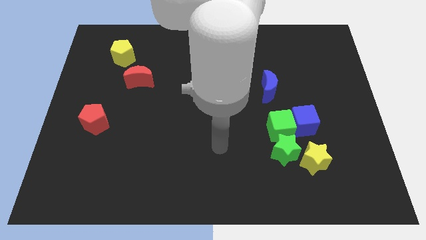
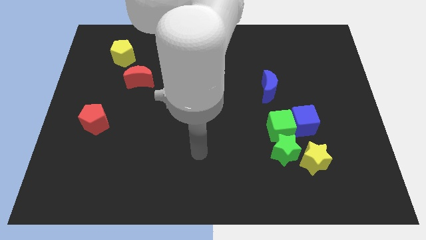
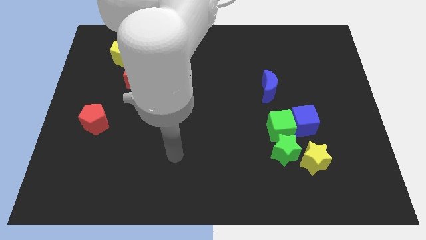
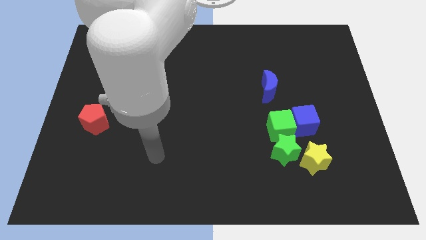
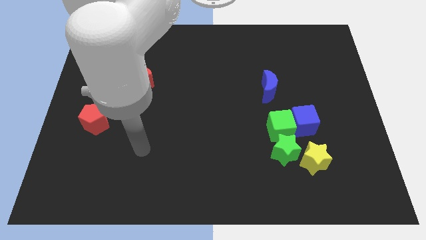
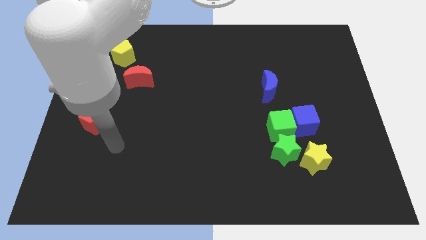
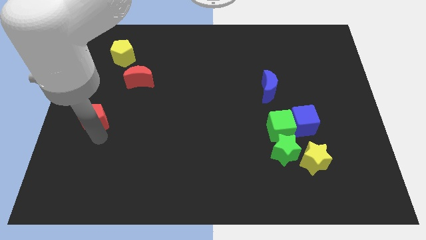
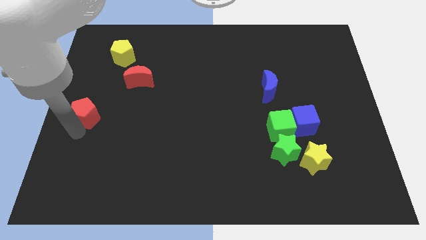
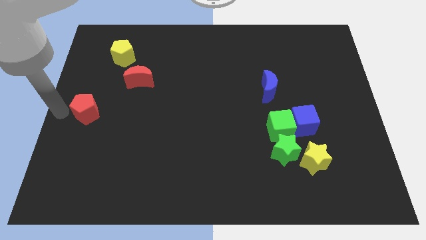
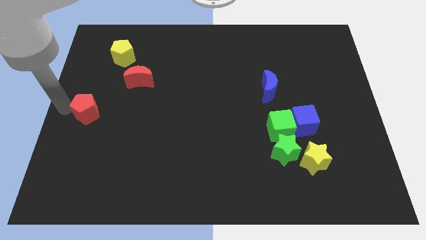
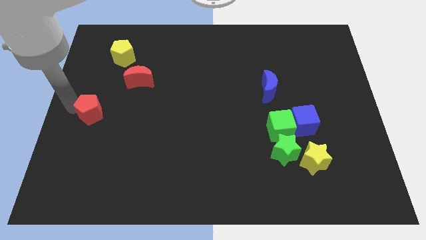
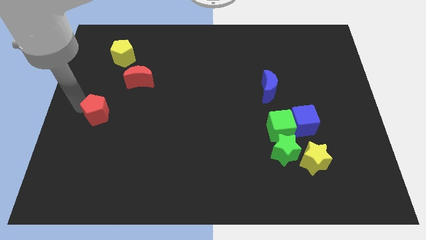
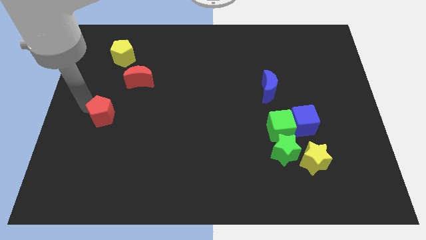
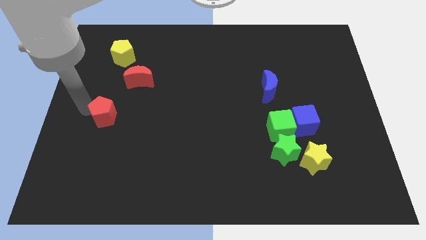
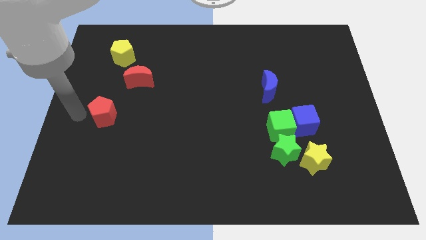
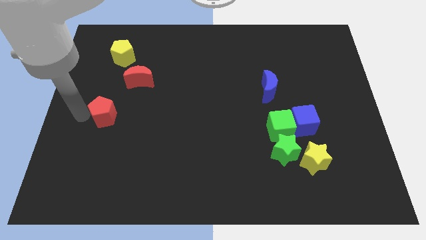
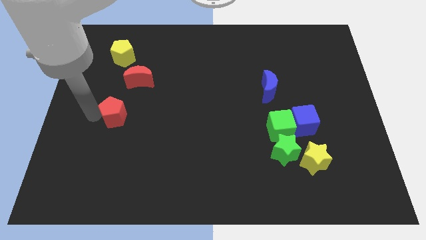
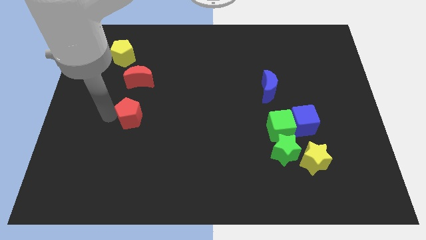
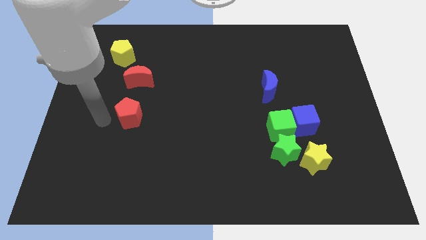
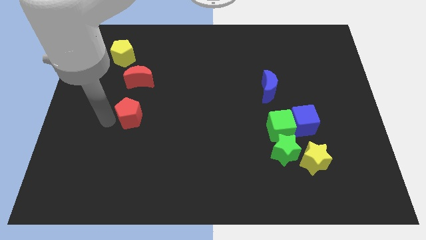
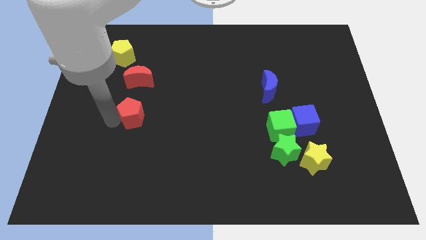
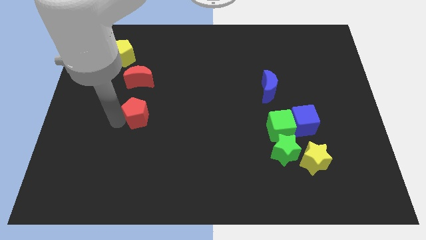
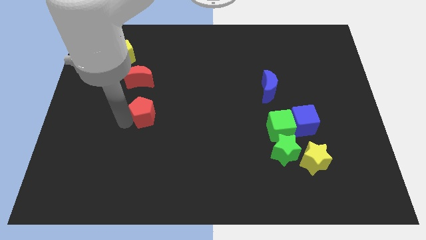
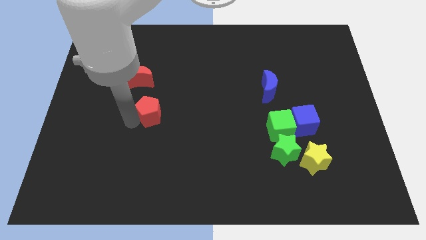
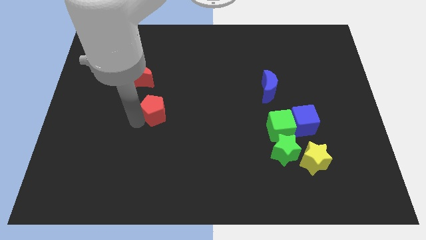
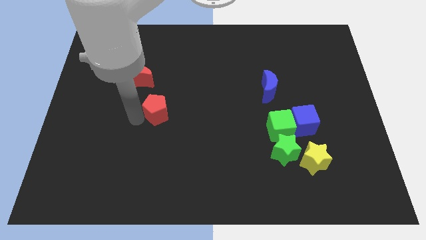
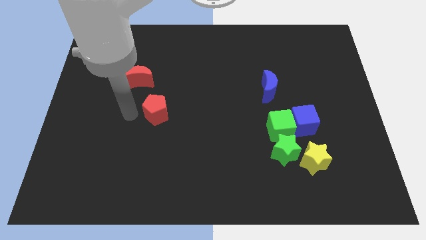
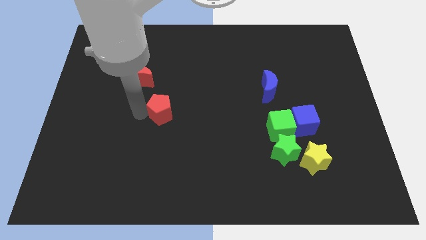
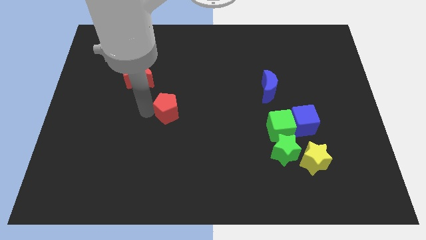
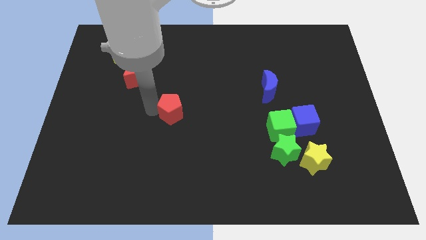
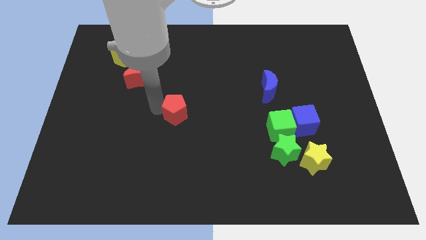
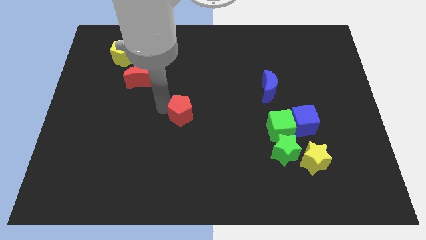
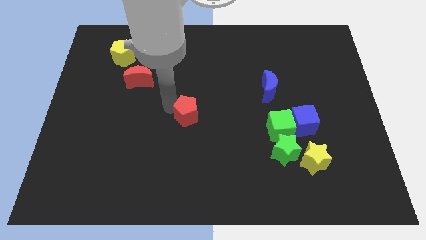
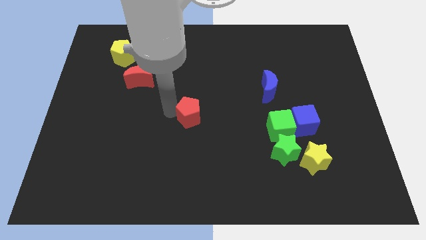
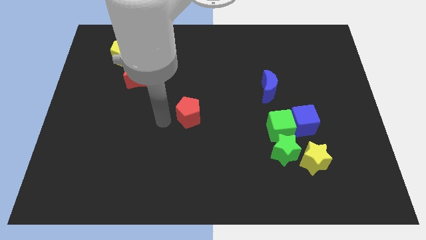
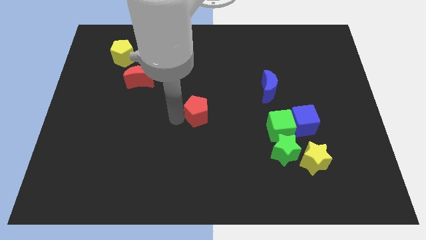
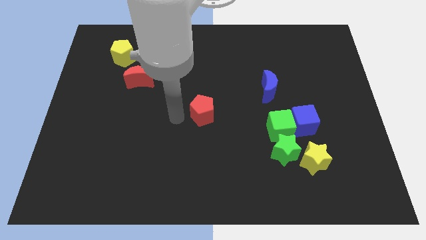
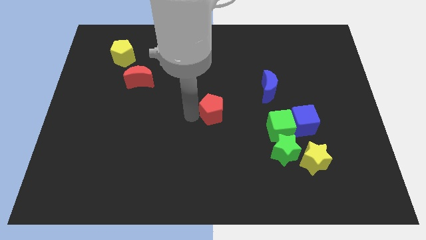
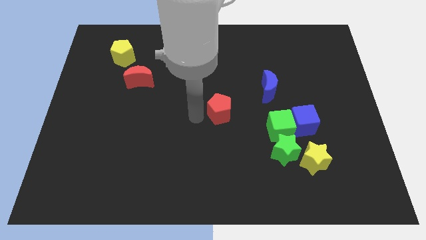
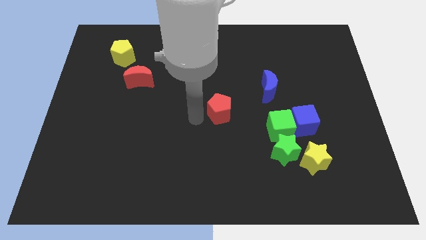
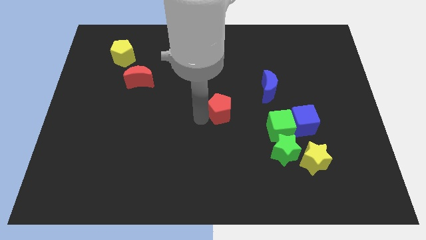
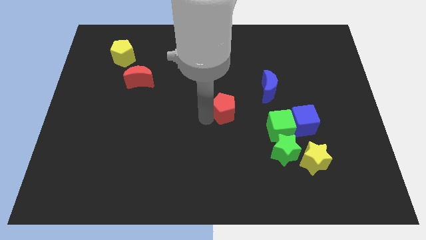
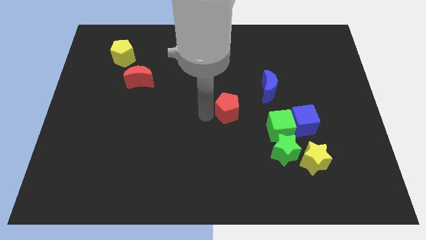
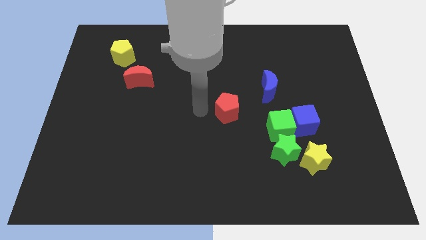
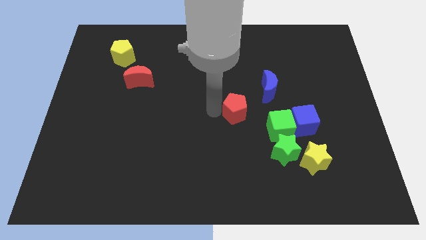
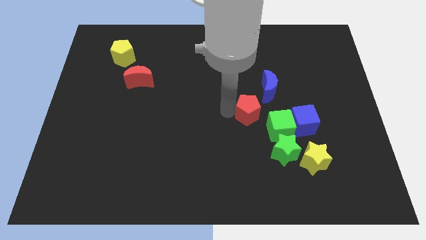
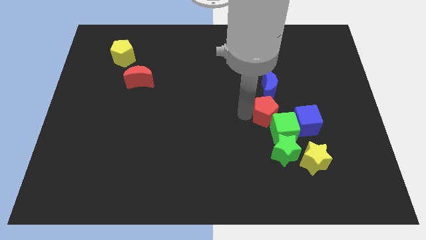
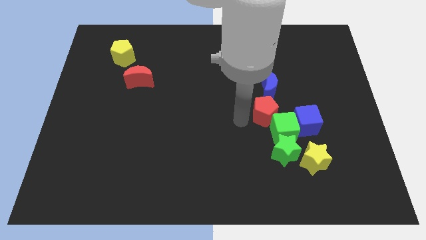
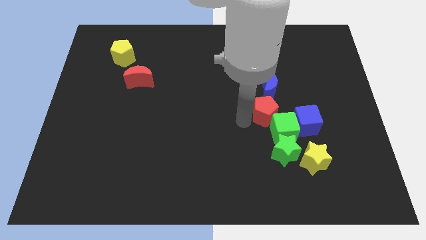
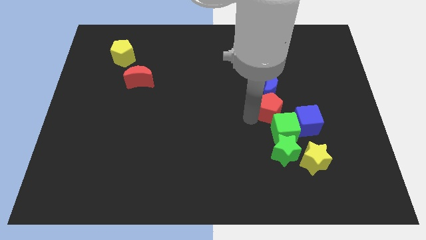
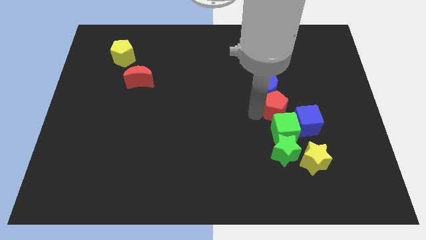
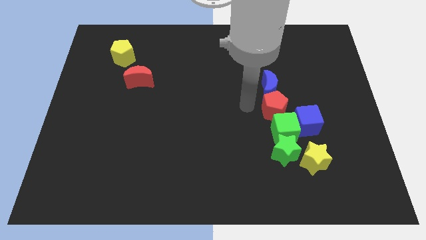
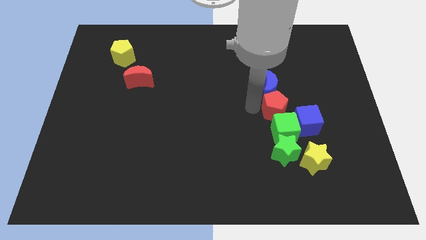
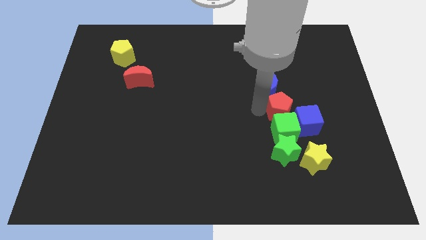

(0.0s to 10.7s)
push the red pentagon to the top right of the green cube

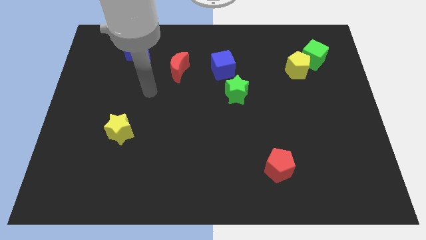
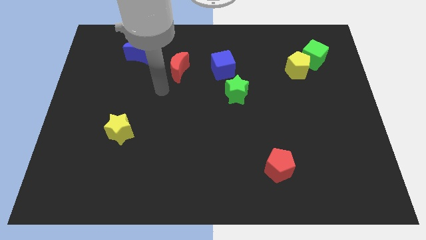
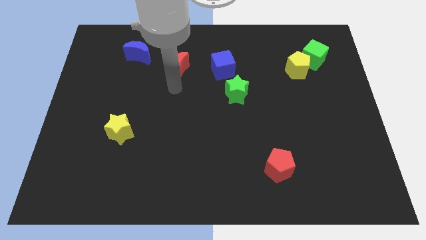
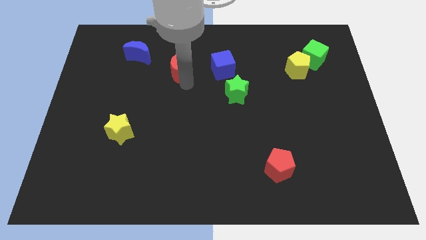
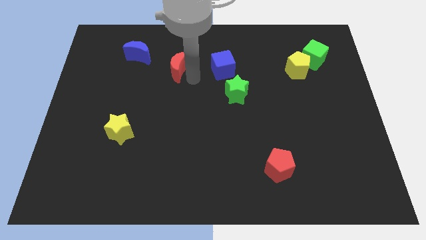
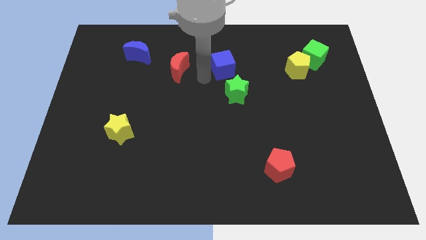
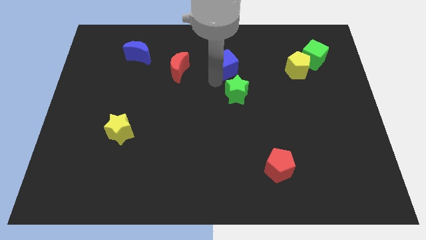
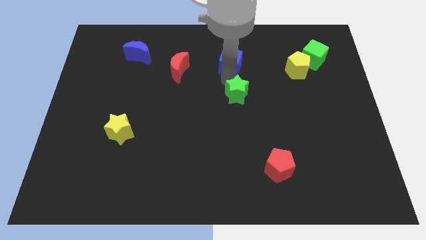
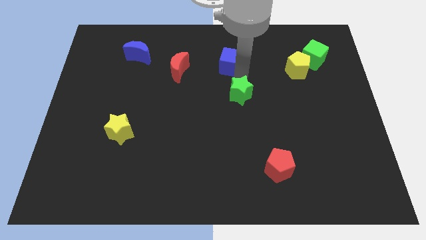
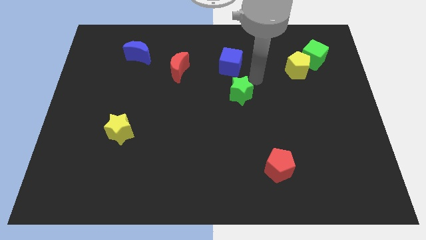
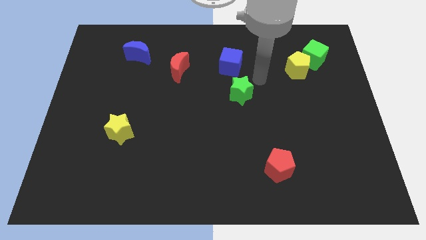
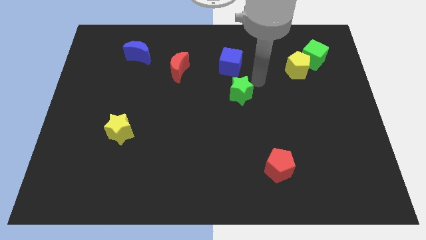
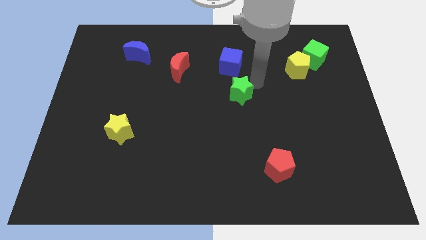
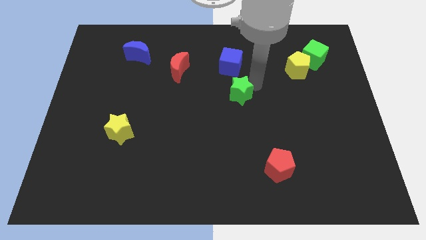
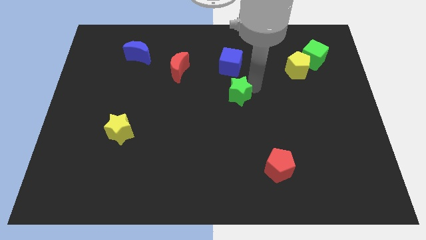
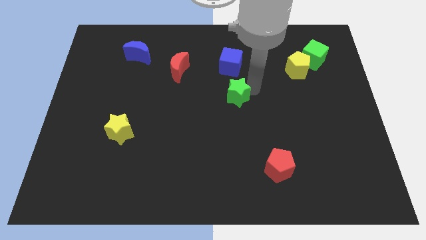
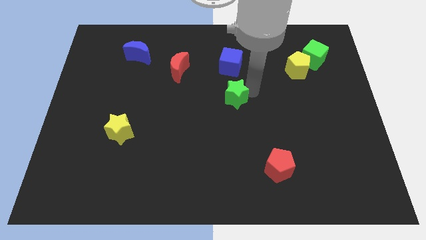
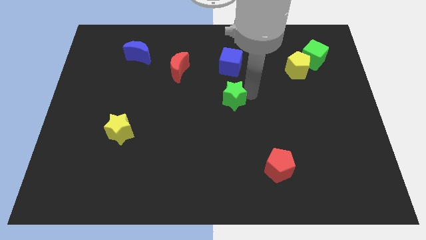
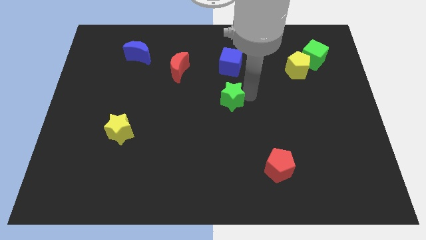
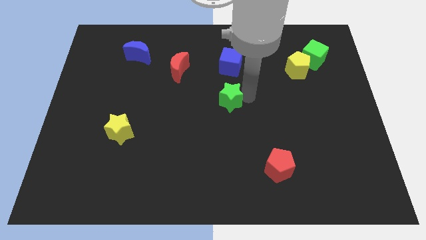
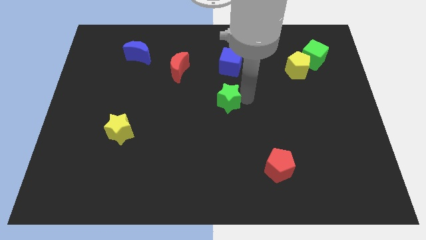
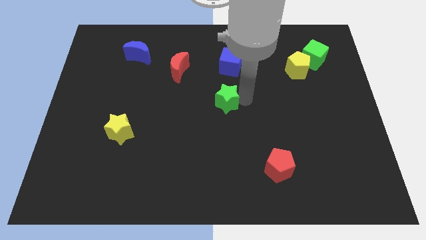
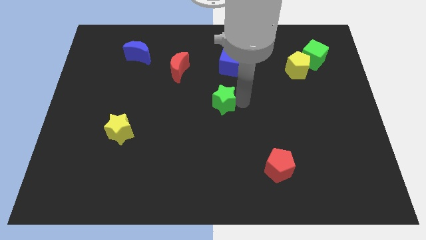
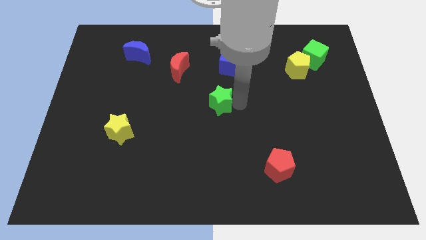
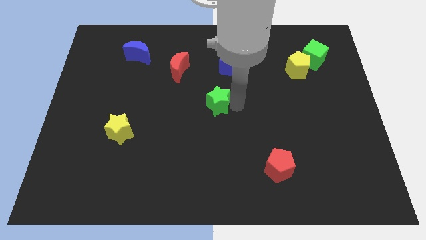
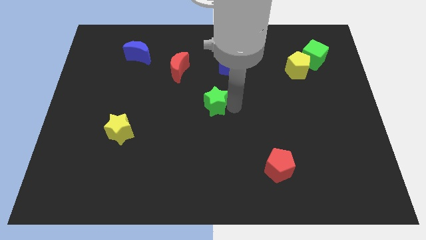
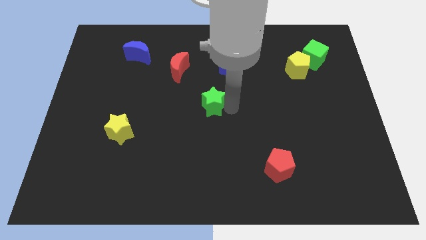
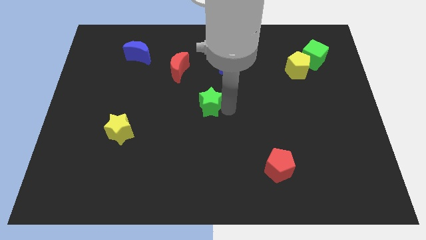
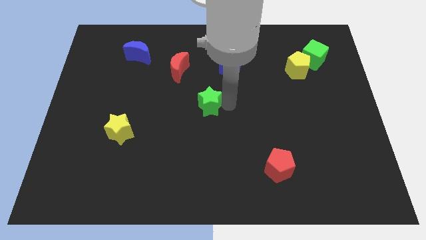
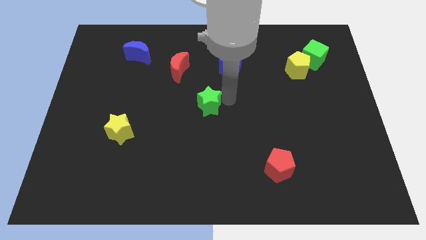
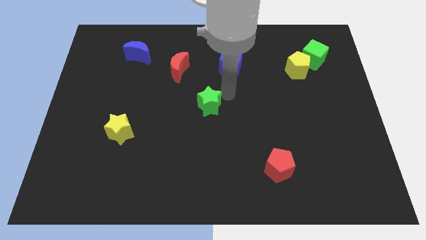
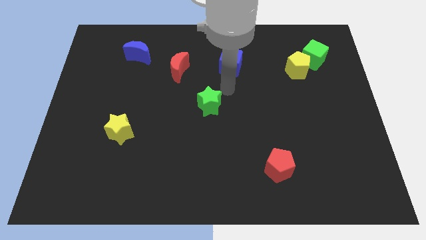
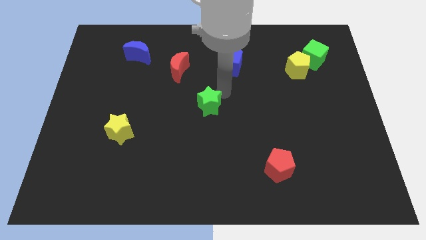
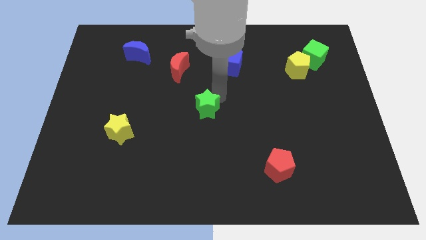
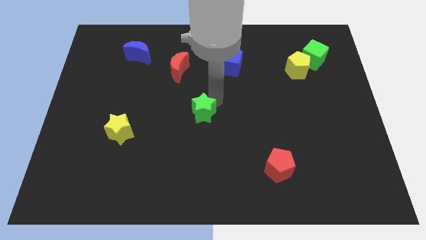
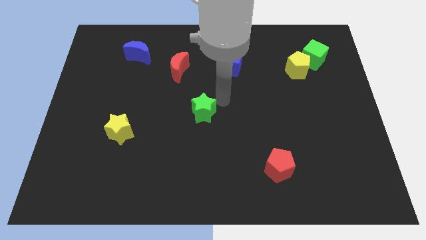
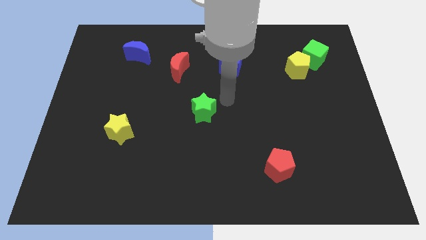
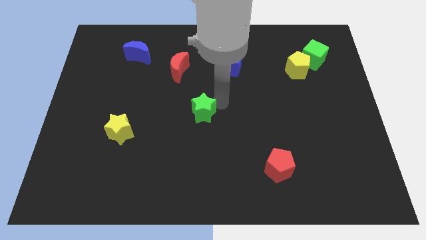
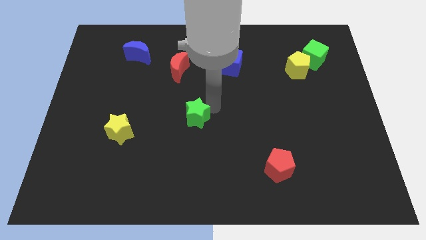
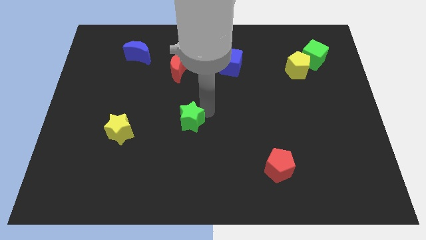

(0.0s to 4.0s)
slide the green star right of the yellow star
